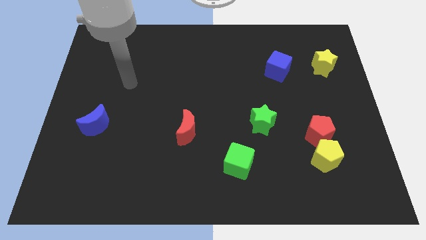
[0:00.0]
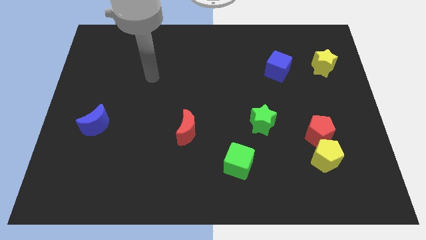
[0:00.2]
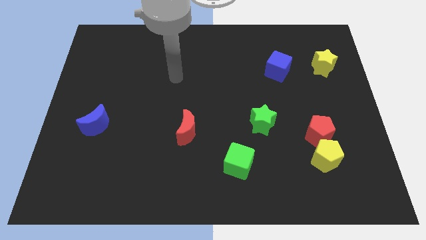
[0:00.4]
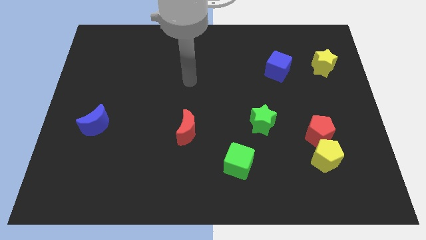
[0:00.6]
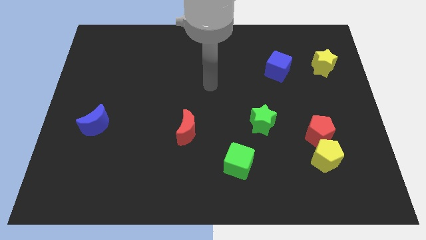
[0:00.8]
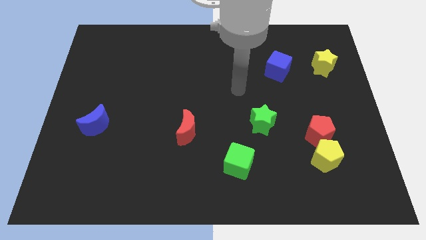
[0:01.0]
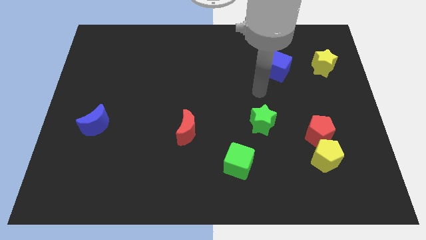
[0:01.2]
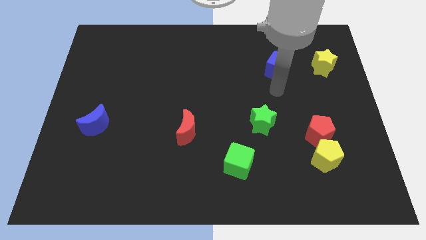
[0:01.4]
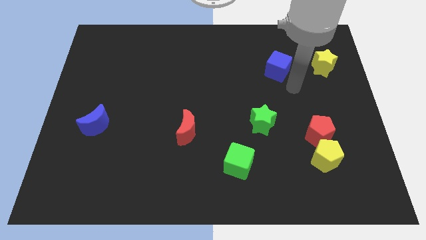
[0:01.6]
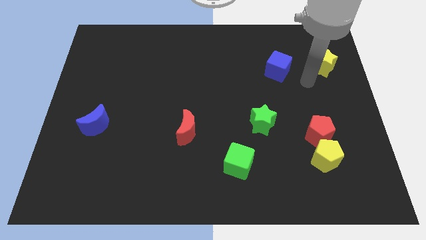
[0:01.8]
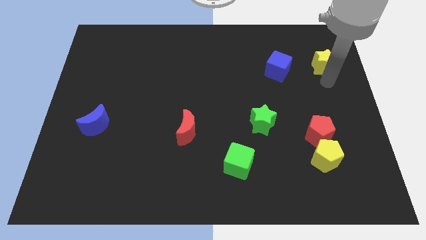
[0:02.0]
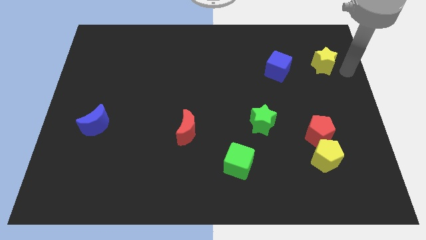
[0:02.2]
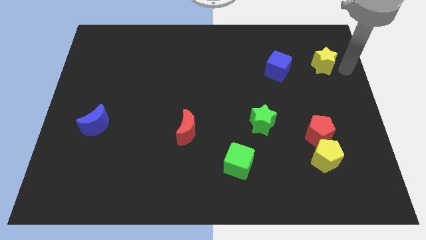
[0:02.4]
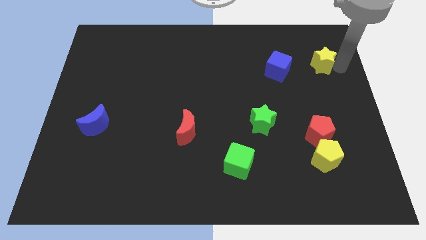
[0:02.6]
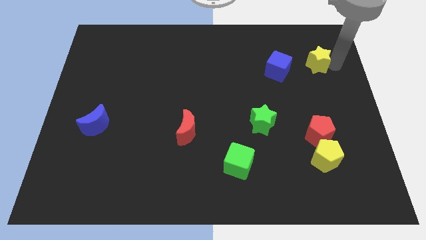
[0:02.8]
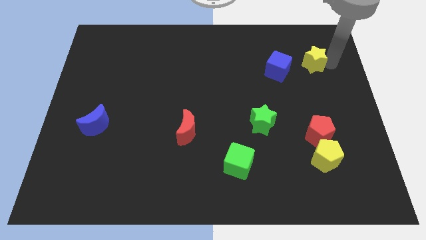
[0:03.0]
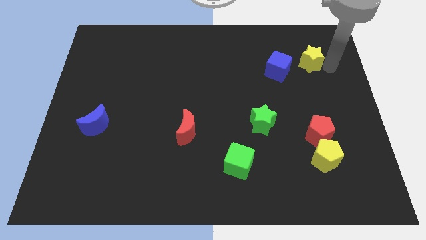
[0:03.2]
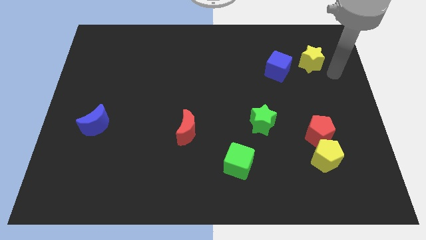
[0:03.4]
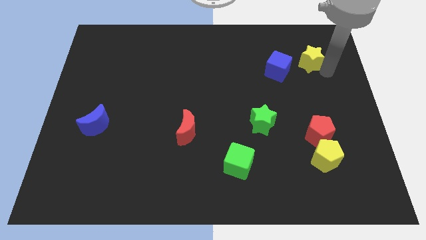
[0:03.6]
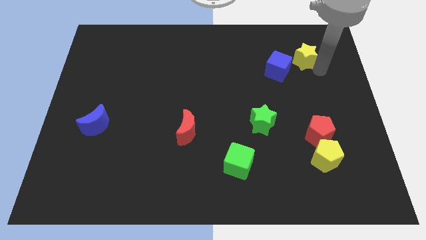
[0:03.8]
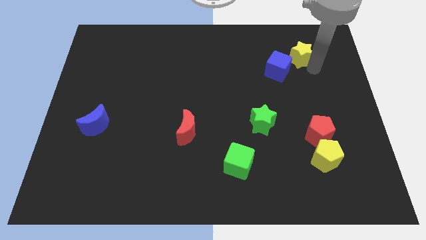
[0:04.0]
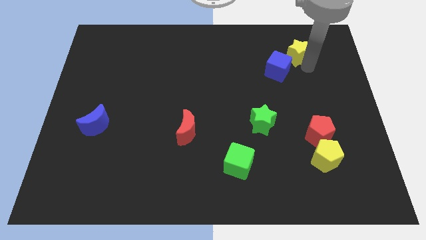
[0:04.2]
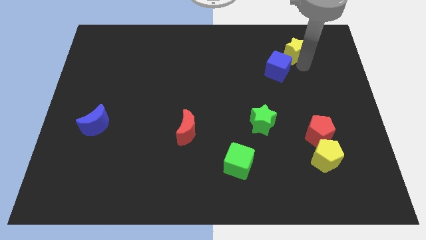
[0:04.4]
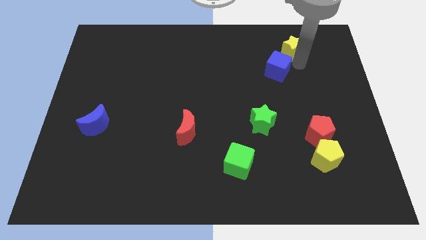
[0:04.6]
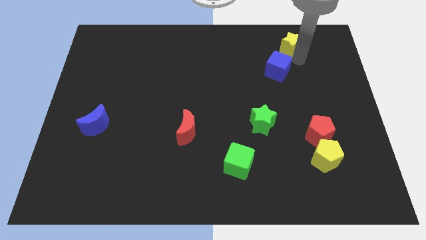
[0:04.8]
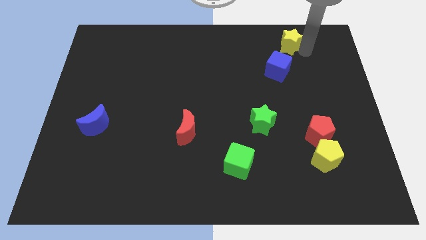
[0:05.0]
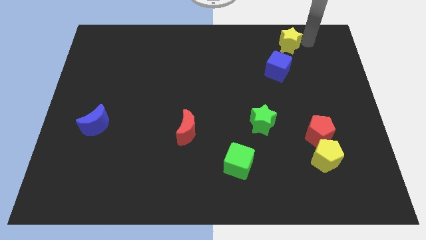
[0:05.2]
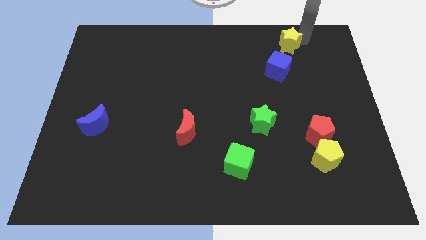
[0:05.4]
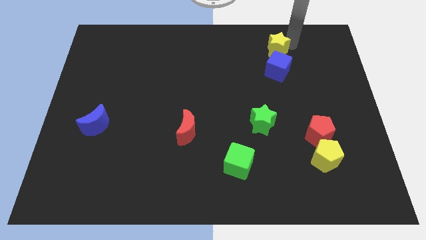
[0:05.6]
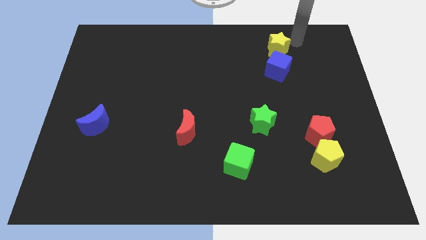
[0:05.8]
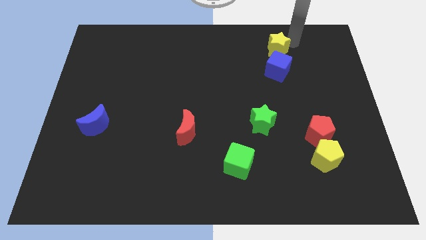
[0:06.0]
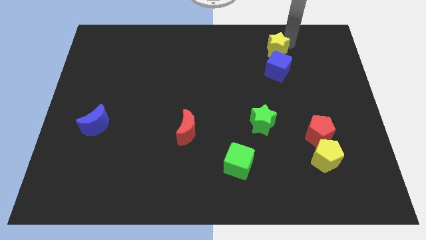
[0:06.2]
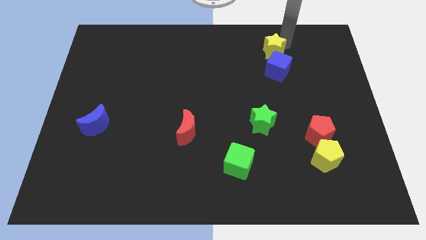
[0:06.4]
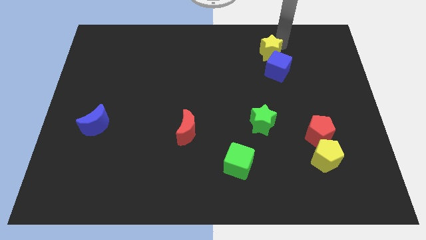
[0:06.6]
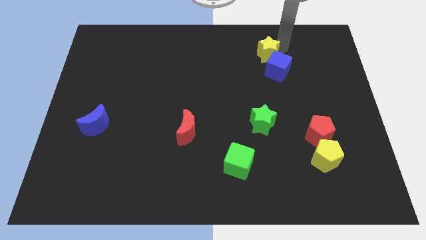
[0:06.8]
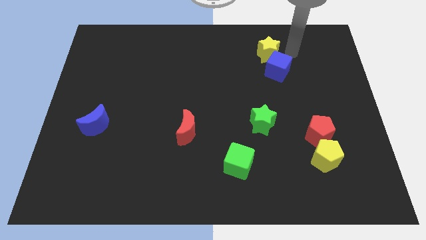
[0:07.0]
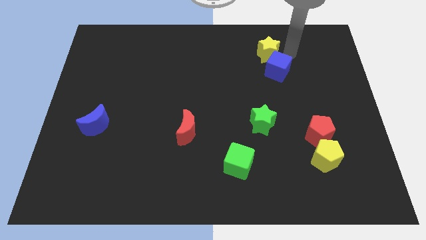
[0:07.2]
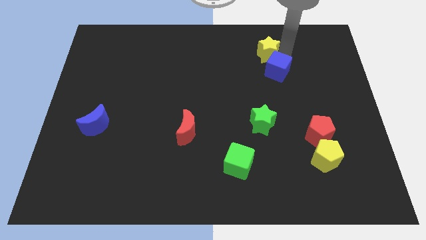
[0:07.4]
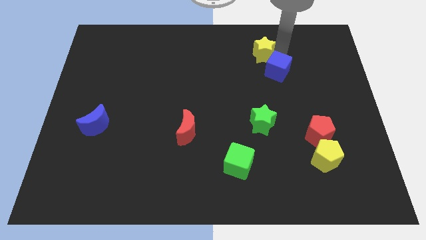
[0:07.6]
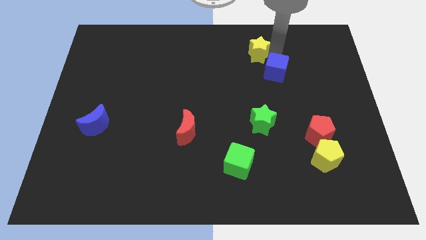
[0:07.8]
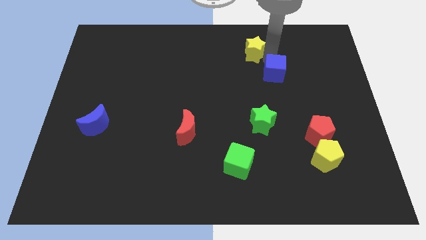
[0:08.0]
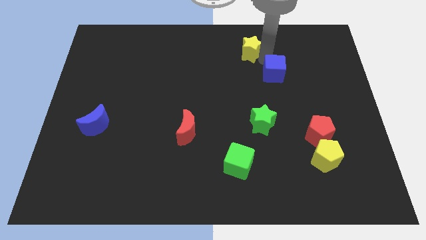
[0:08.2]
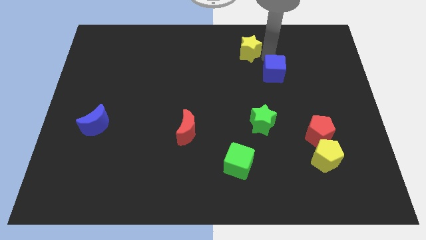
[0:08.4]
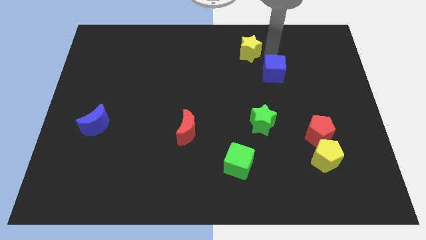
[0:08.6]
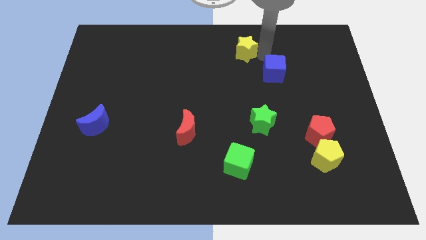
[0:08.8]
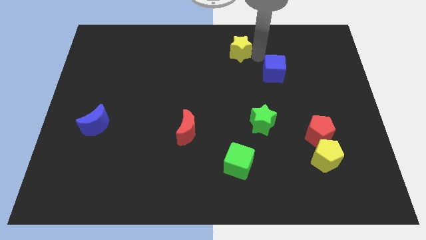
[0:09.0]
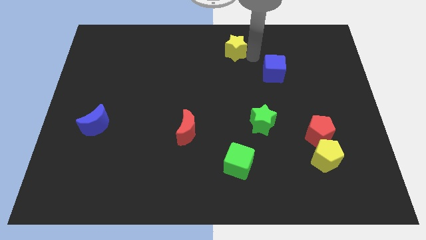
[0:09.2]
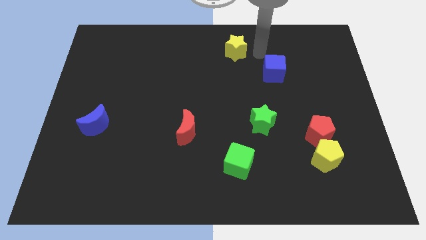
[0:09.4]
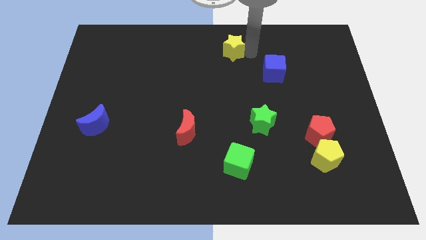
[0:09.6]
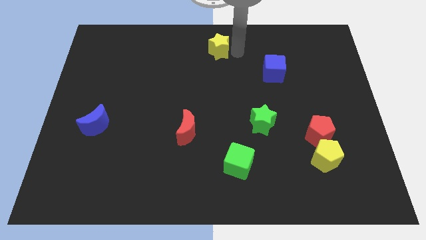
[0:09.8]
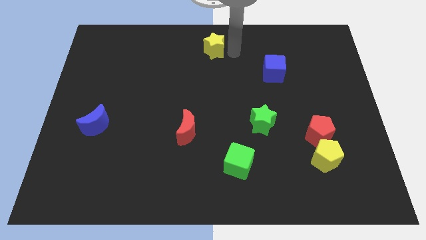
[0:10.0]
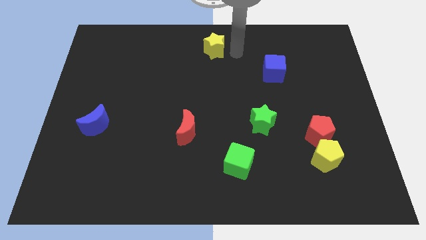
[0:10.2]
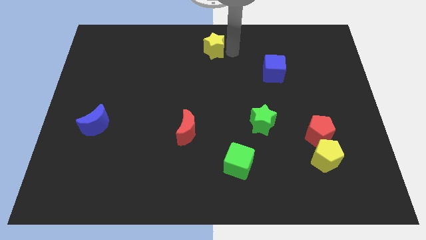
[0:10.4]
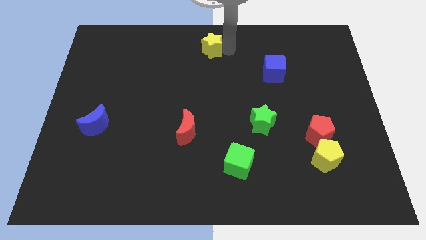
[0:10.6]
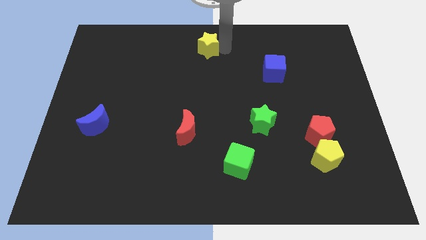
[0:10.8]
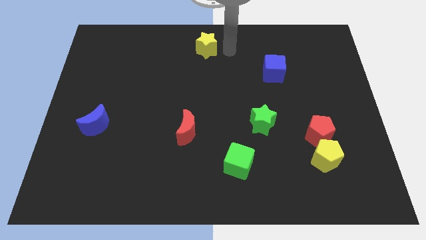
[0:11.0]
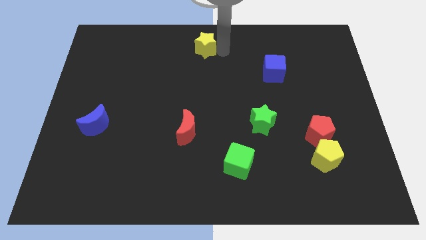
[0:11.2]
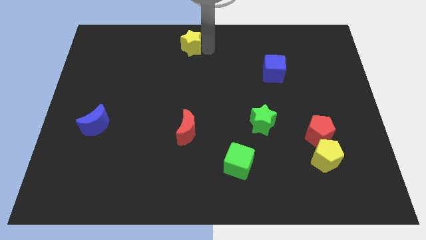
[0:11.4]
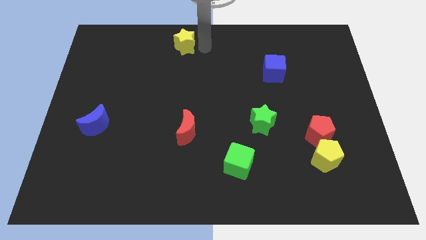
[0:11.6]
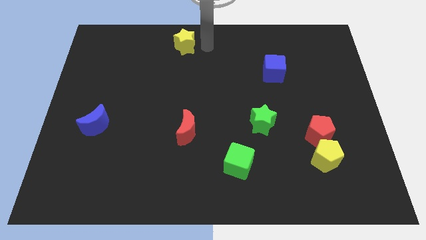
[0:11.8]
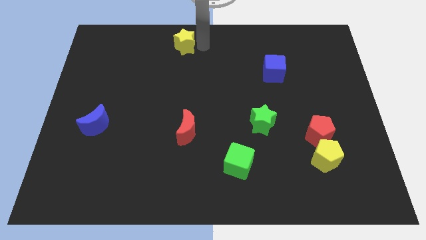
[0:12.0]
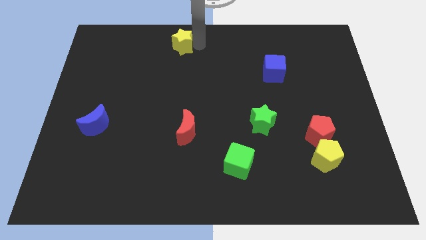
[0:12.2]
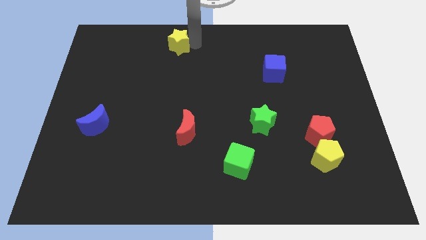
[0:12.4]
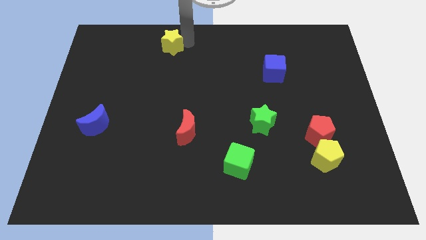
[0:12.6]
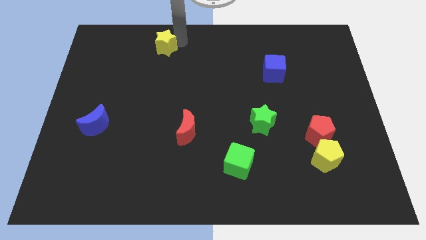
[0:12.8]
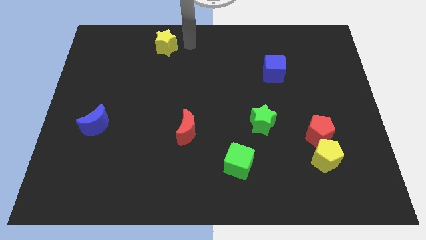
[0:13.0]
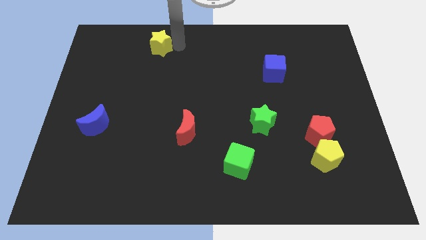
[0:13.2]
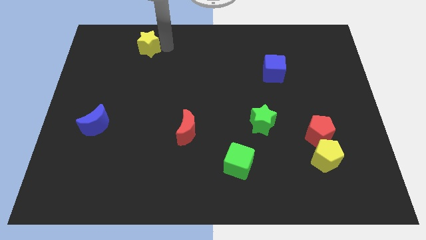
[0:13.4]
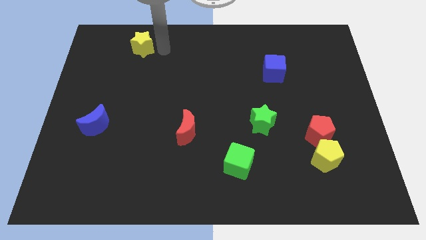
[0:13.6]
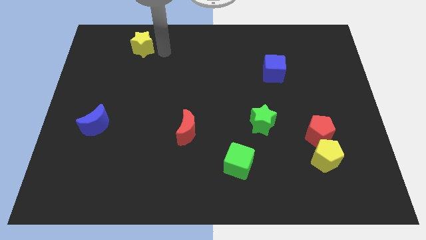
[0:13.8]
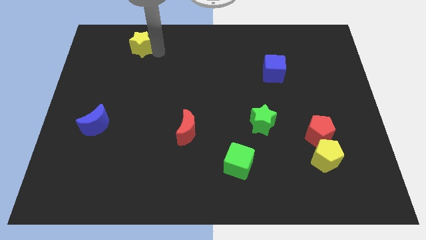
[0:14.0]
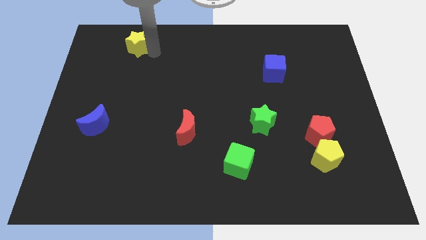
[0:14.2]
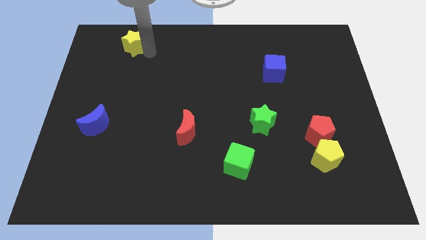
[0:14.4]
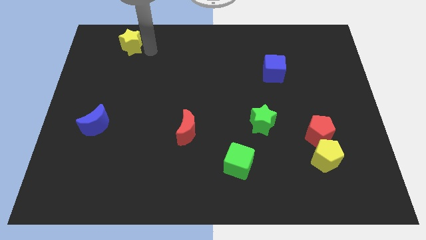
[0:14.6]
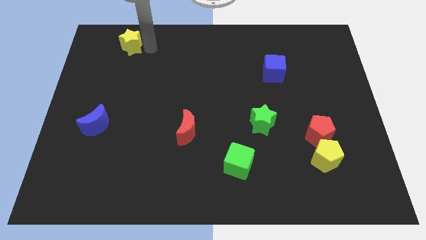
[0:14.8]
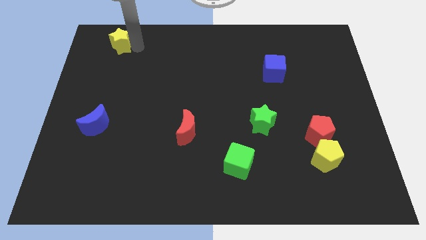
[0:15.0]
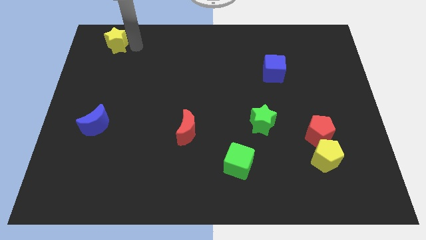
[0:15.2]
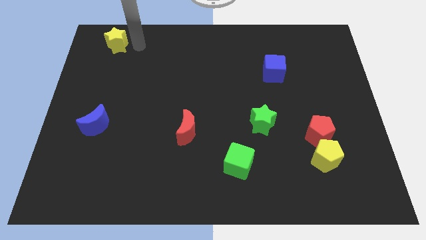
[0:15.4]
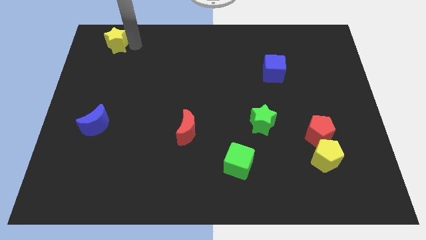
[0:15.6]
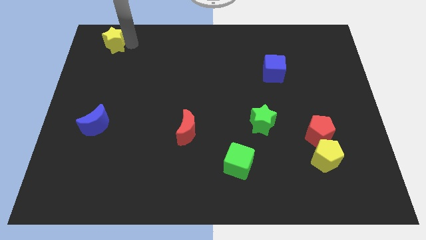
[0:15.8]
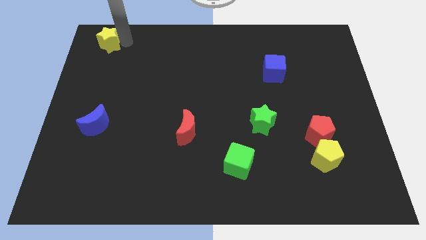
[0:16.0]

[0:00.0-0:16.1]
slide the yellow star to the top left
